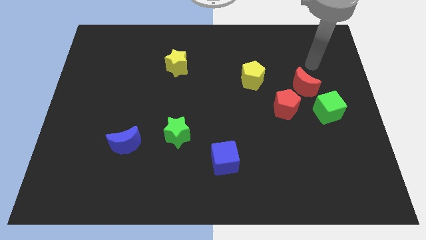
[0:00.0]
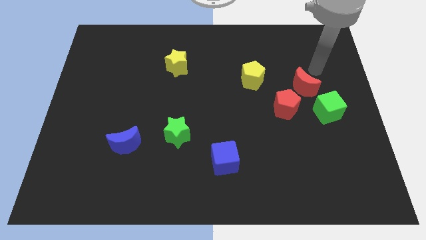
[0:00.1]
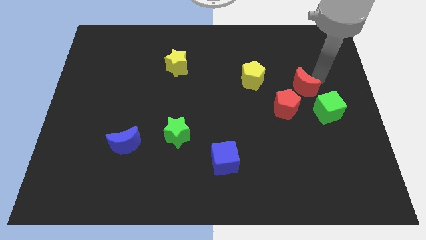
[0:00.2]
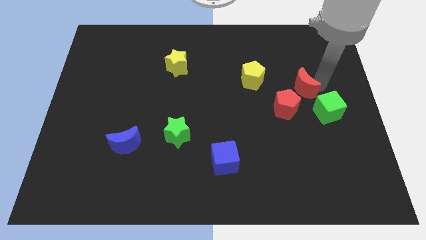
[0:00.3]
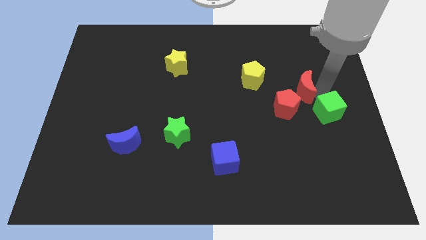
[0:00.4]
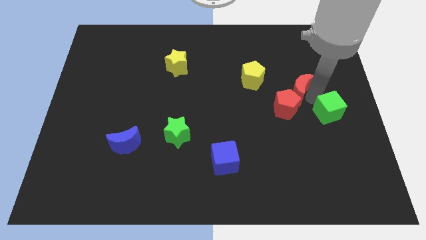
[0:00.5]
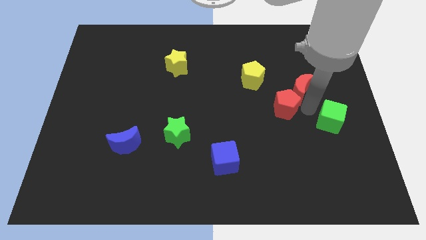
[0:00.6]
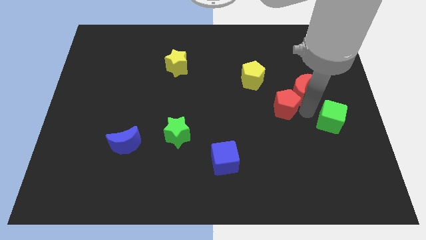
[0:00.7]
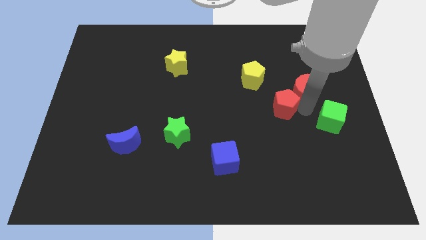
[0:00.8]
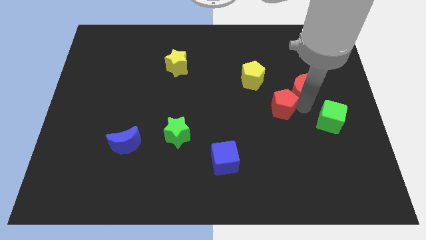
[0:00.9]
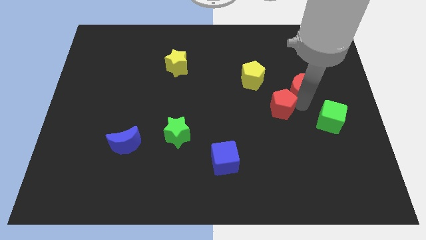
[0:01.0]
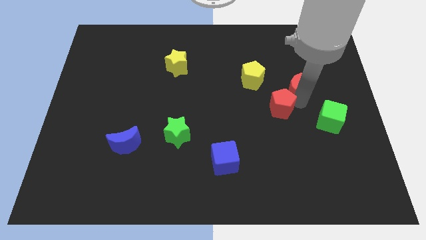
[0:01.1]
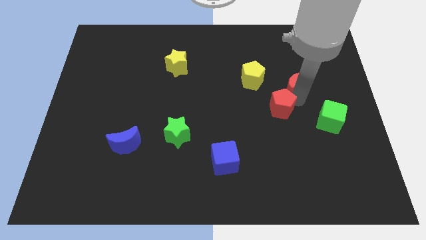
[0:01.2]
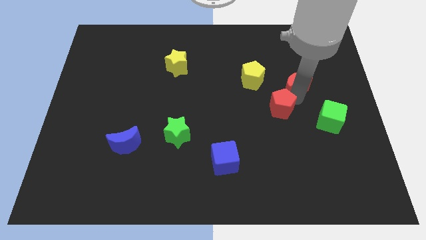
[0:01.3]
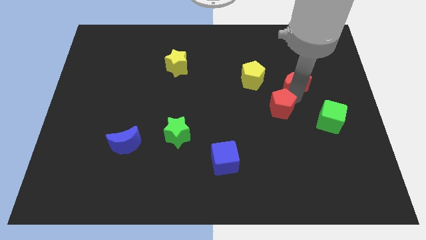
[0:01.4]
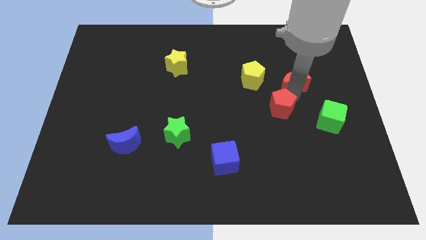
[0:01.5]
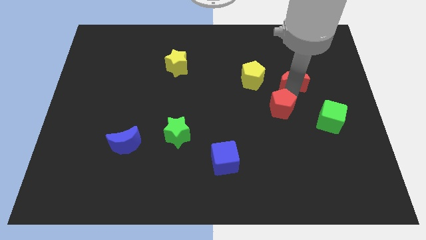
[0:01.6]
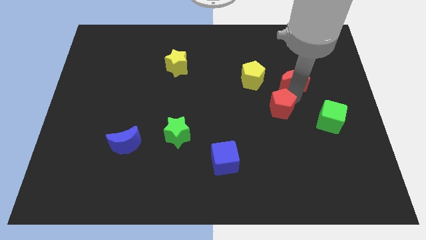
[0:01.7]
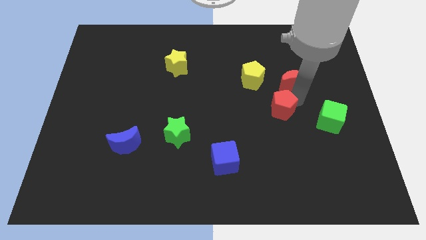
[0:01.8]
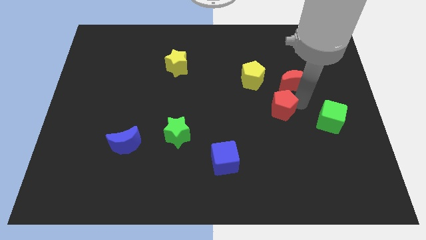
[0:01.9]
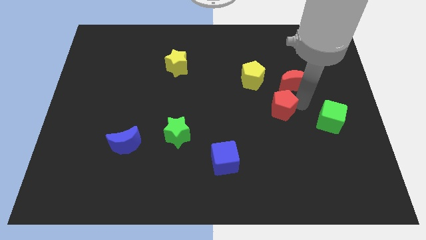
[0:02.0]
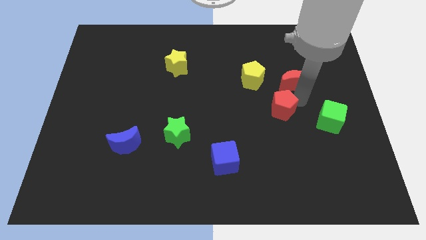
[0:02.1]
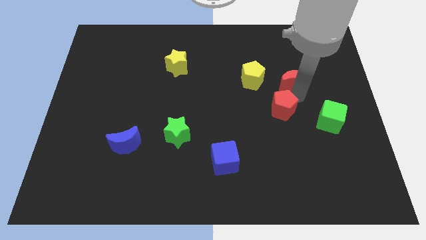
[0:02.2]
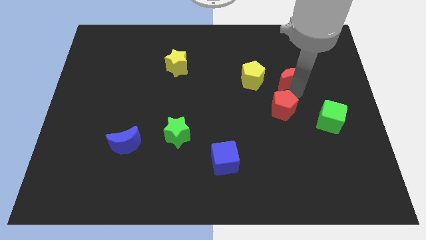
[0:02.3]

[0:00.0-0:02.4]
pull the red moon apart from the red pentagon and green cube

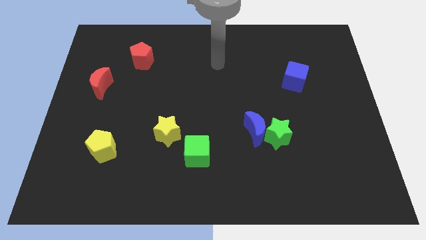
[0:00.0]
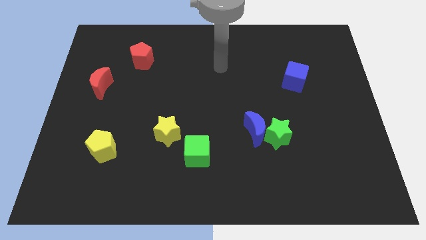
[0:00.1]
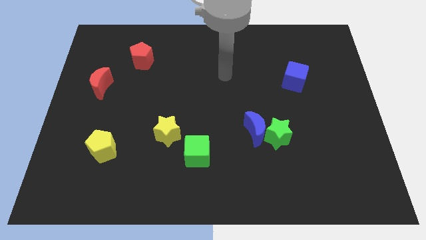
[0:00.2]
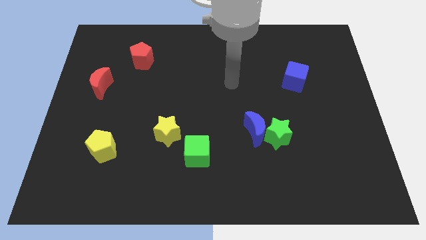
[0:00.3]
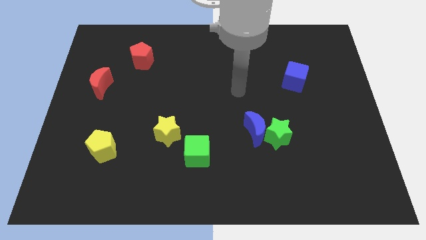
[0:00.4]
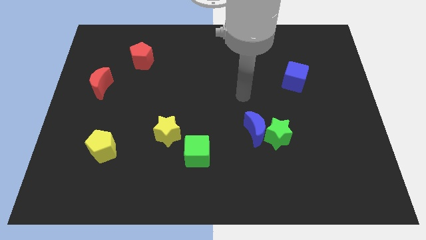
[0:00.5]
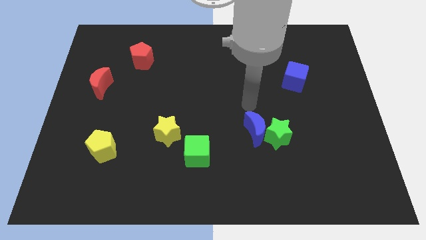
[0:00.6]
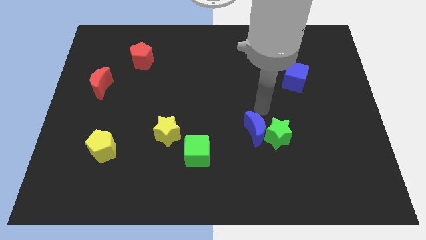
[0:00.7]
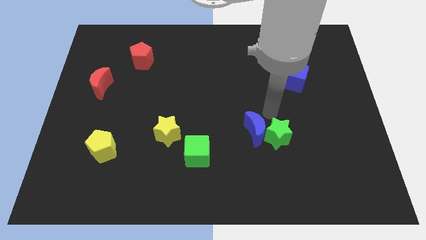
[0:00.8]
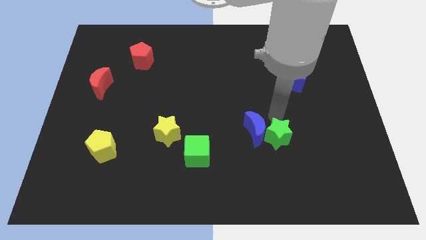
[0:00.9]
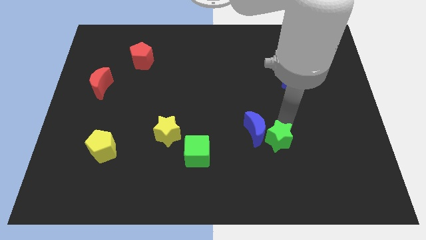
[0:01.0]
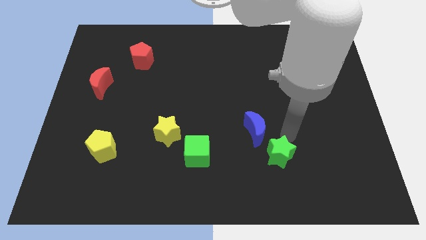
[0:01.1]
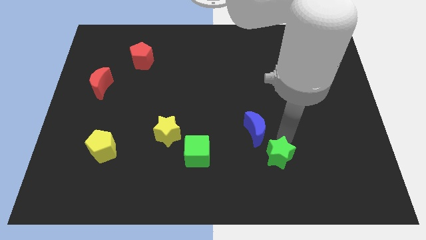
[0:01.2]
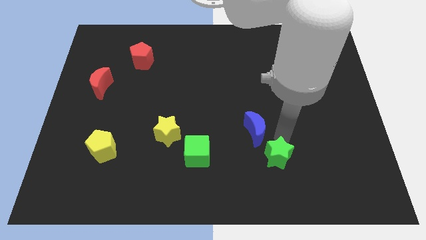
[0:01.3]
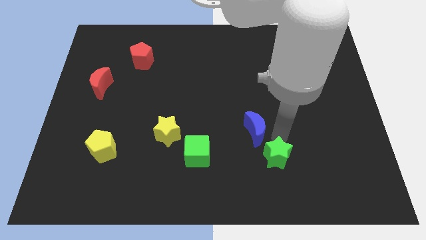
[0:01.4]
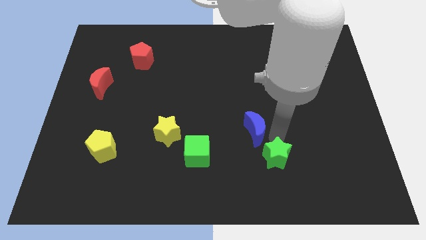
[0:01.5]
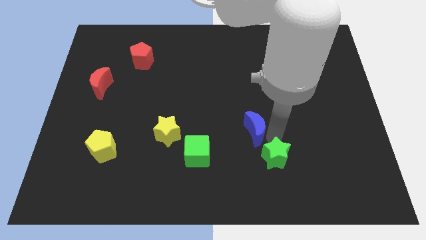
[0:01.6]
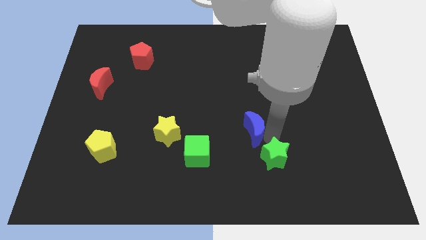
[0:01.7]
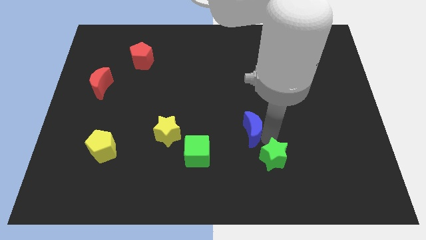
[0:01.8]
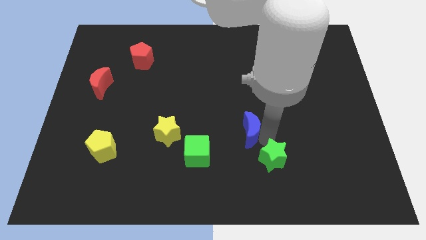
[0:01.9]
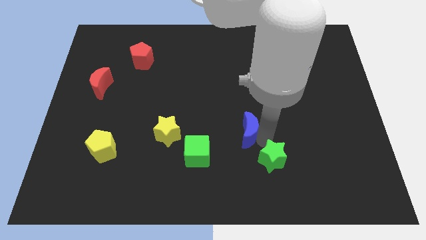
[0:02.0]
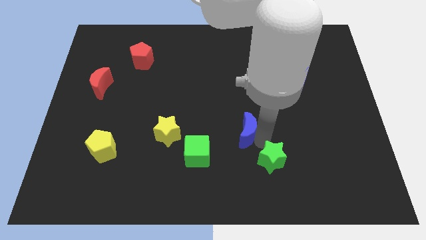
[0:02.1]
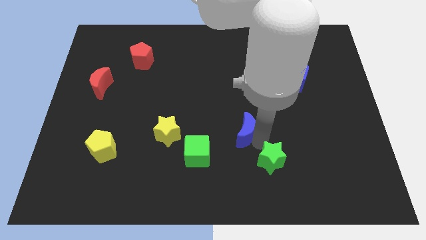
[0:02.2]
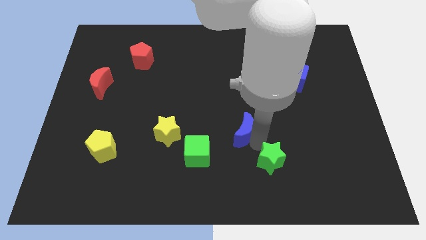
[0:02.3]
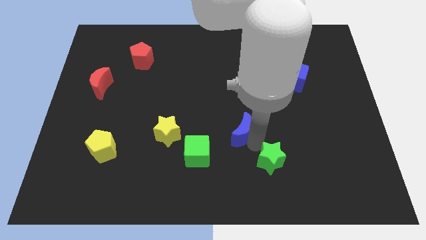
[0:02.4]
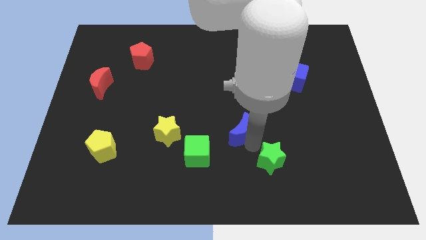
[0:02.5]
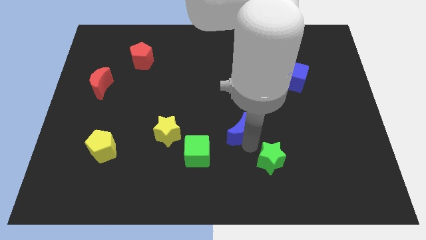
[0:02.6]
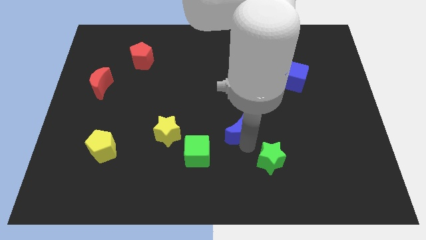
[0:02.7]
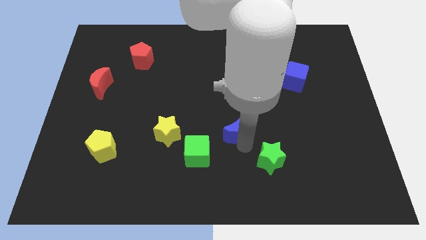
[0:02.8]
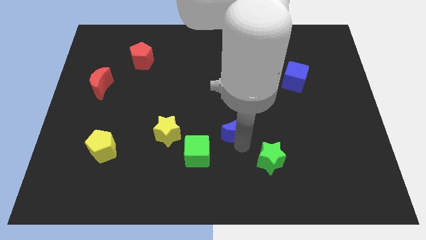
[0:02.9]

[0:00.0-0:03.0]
separate the blue moon from the green star

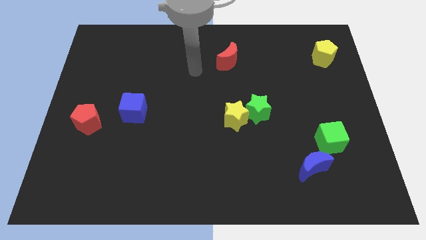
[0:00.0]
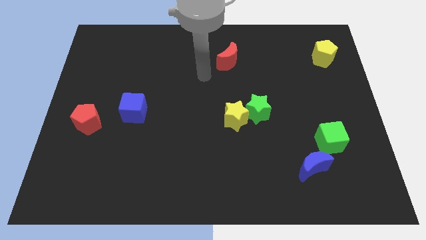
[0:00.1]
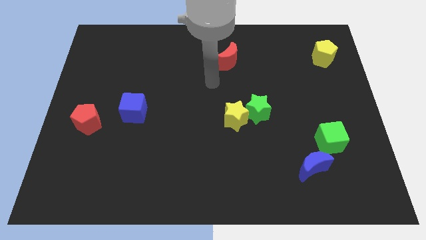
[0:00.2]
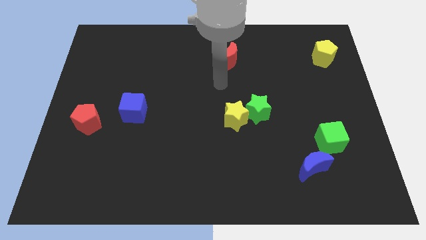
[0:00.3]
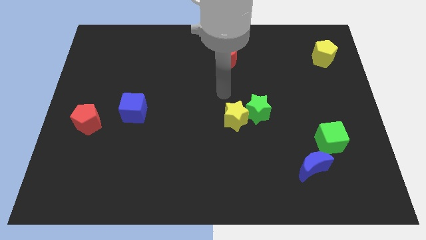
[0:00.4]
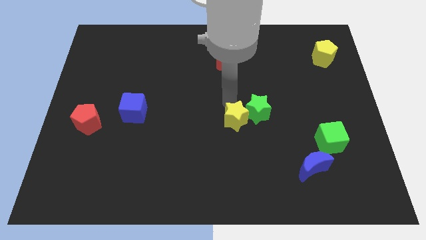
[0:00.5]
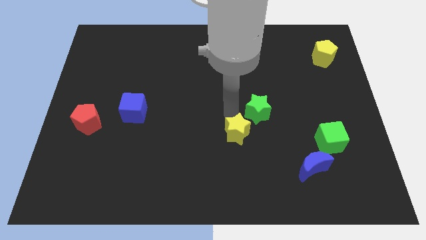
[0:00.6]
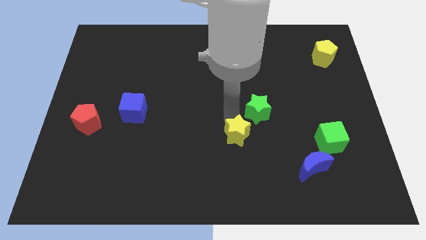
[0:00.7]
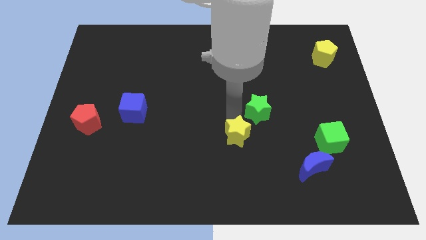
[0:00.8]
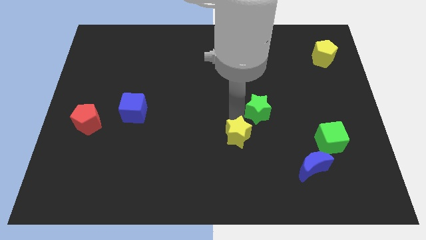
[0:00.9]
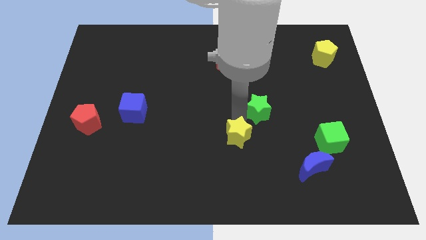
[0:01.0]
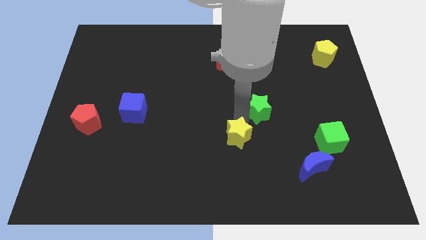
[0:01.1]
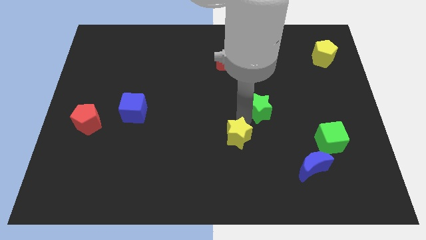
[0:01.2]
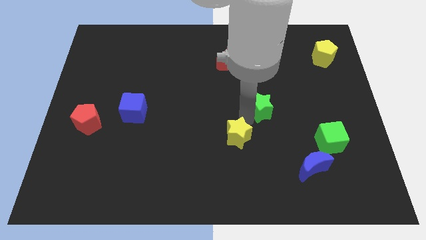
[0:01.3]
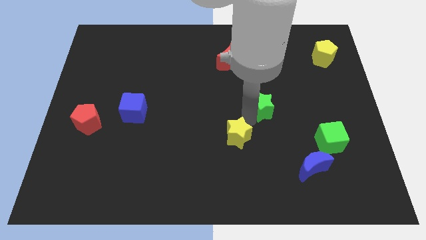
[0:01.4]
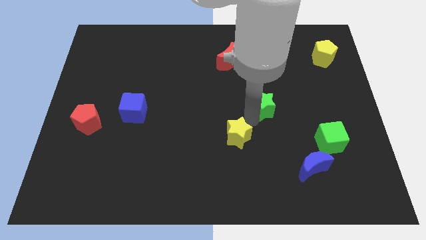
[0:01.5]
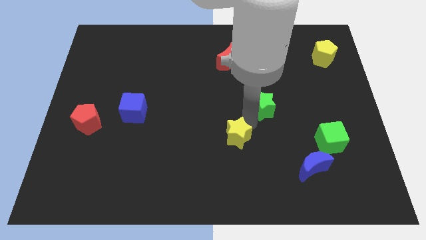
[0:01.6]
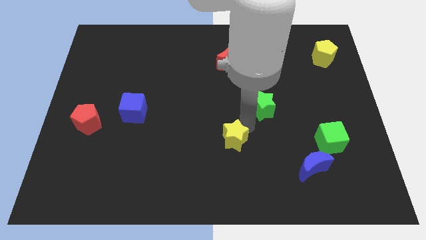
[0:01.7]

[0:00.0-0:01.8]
pull the green star apart from the yellow star

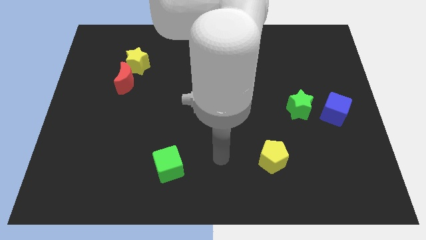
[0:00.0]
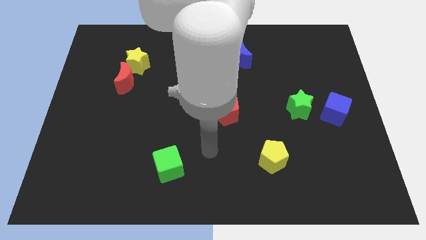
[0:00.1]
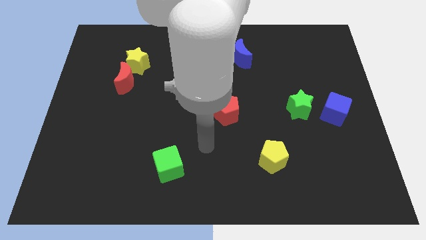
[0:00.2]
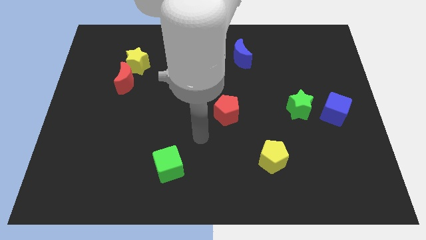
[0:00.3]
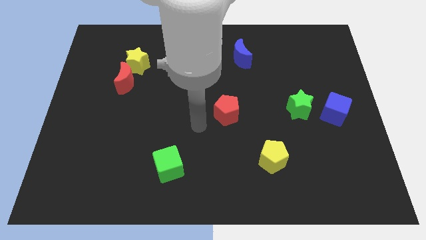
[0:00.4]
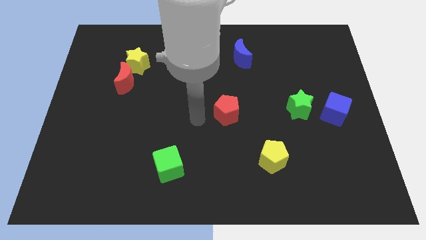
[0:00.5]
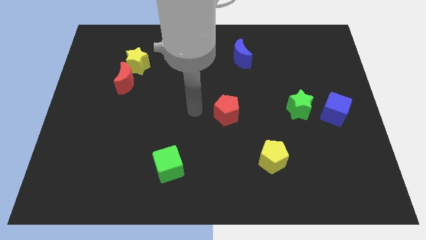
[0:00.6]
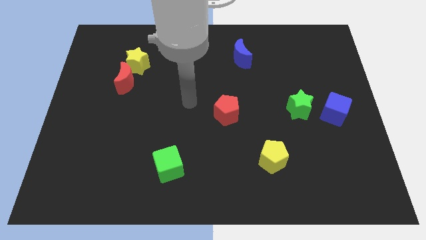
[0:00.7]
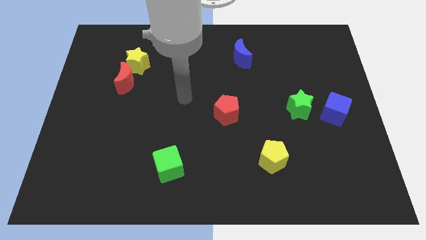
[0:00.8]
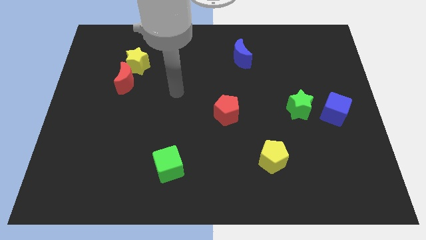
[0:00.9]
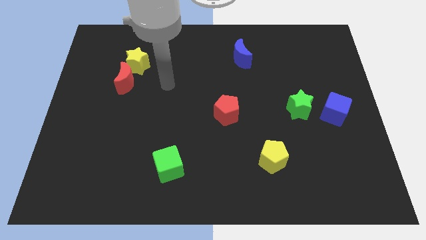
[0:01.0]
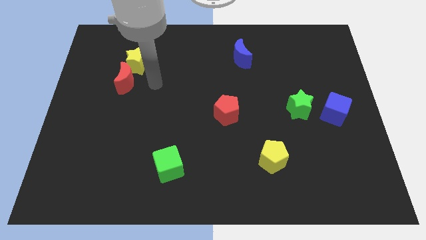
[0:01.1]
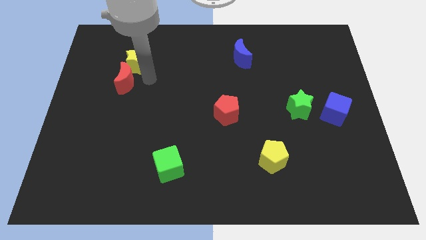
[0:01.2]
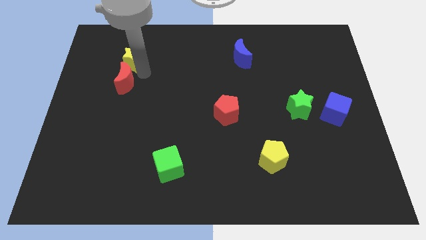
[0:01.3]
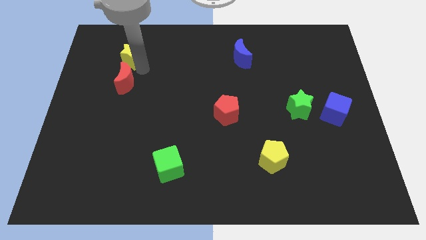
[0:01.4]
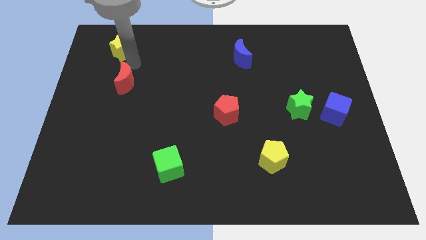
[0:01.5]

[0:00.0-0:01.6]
move the red moon away from the yellow star

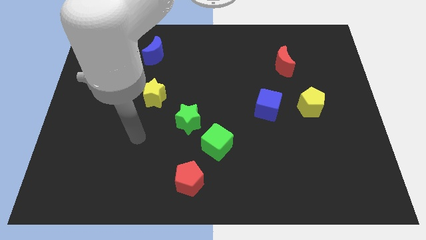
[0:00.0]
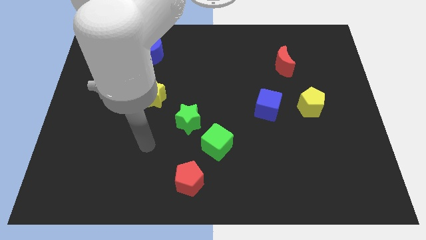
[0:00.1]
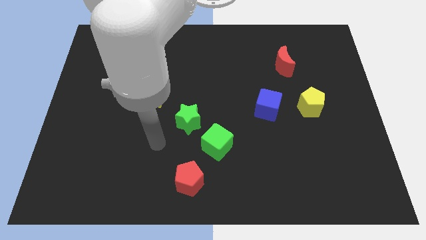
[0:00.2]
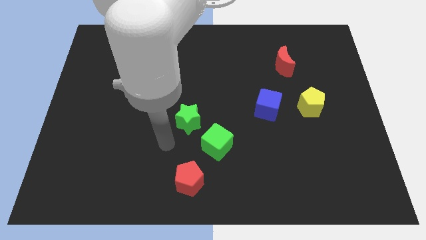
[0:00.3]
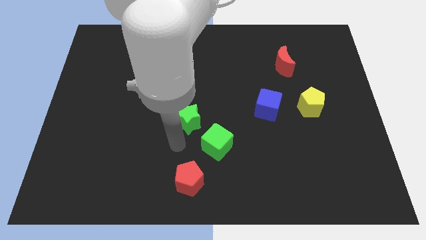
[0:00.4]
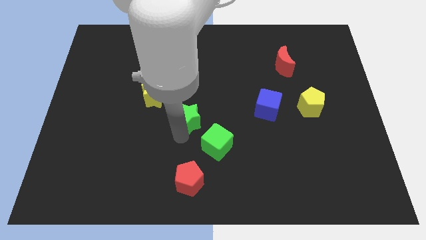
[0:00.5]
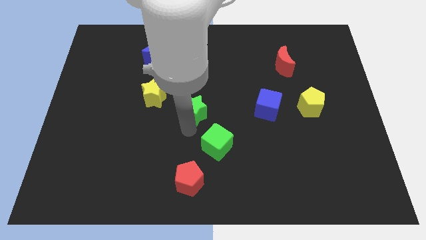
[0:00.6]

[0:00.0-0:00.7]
separate the green cube from the green star
